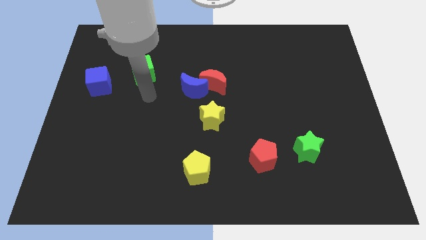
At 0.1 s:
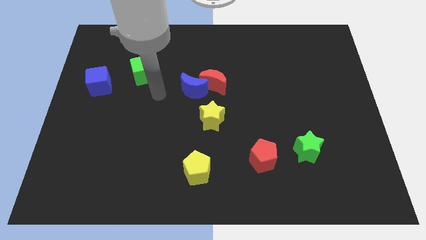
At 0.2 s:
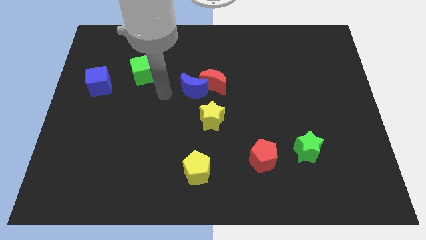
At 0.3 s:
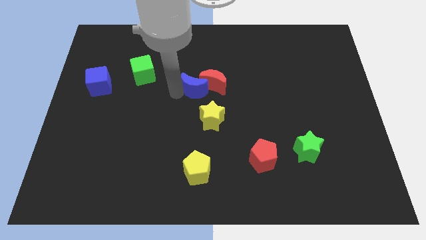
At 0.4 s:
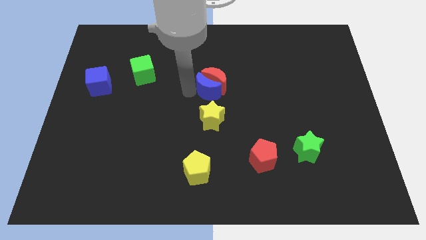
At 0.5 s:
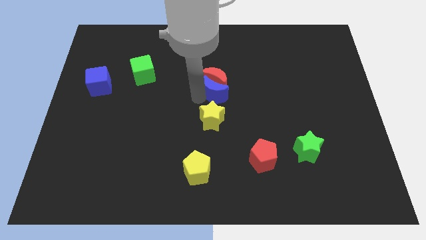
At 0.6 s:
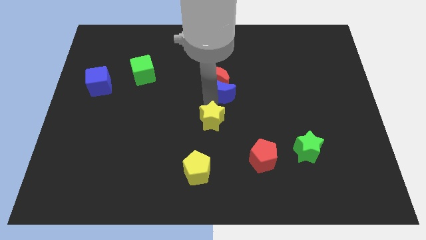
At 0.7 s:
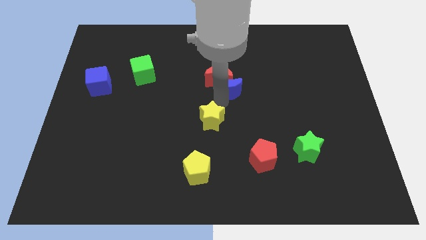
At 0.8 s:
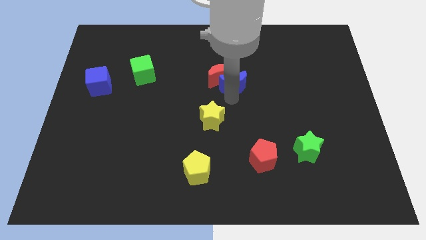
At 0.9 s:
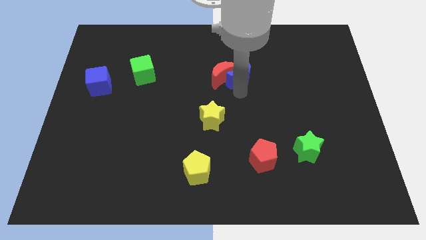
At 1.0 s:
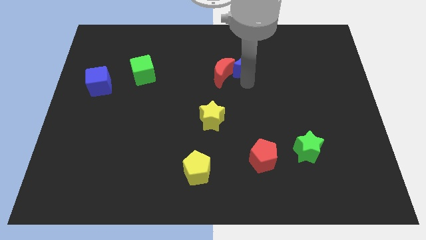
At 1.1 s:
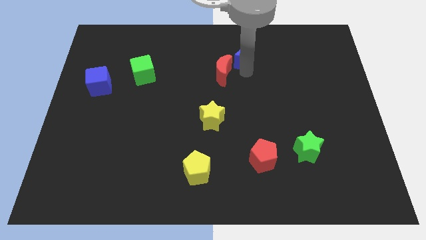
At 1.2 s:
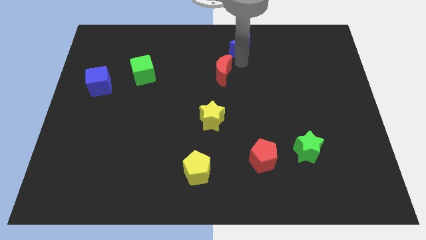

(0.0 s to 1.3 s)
move the red moon away from the blue moon

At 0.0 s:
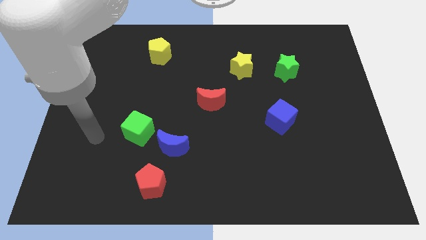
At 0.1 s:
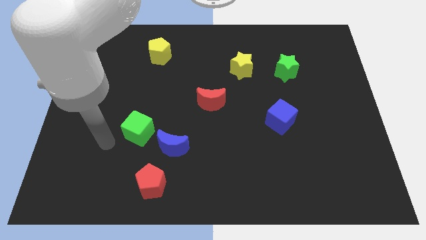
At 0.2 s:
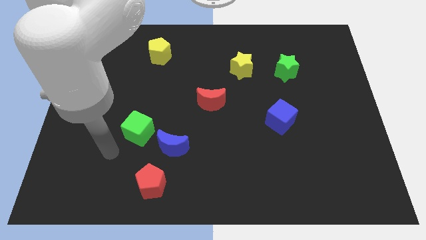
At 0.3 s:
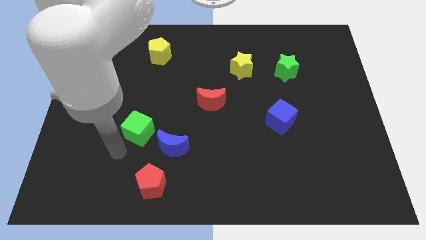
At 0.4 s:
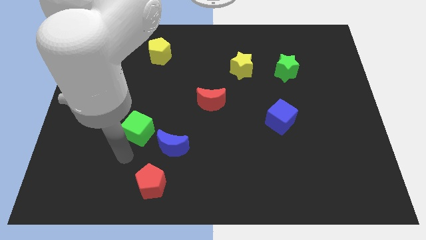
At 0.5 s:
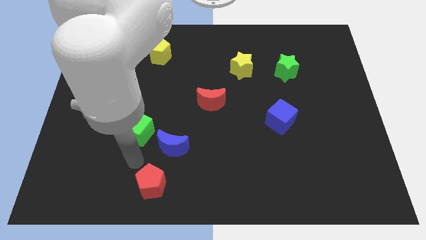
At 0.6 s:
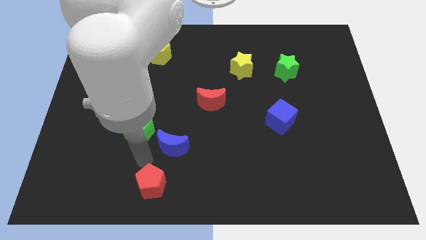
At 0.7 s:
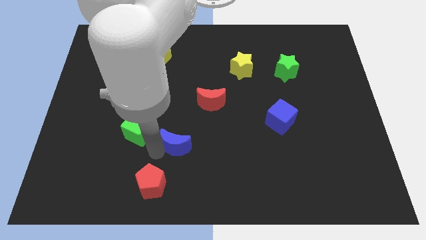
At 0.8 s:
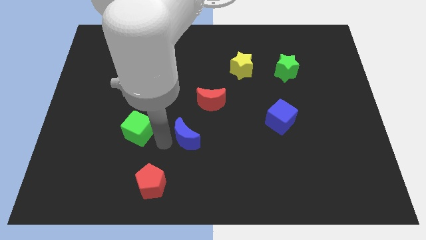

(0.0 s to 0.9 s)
pull the green cube apart from the blue moon

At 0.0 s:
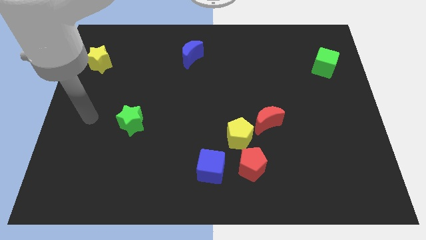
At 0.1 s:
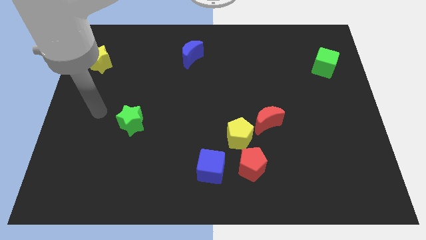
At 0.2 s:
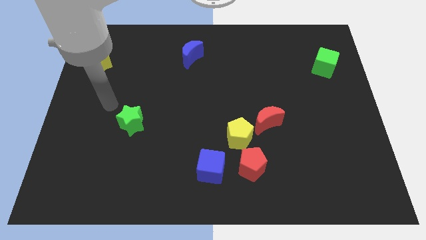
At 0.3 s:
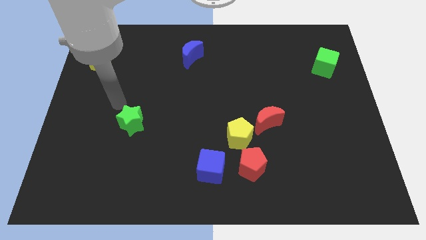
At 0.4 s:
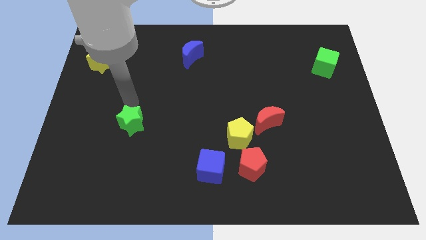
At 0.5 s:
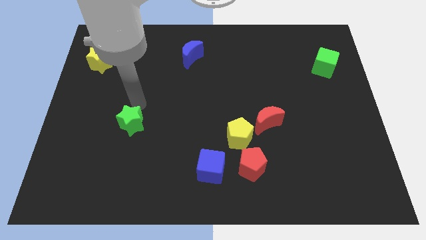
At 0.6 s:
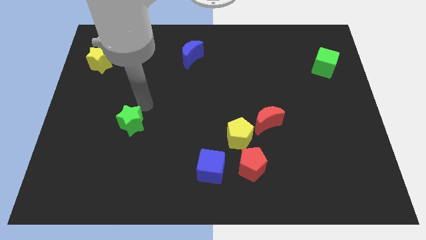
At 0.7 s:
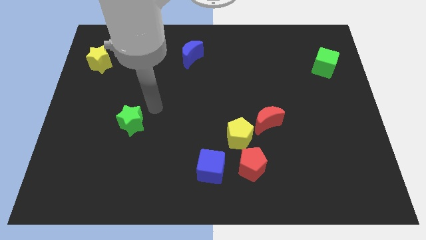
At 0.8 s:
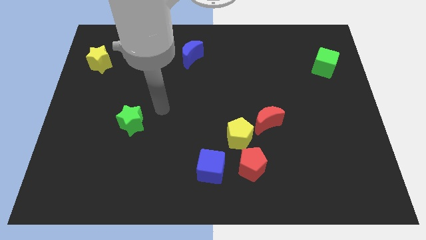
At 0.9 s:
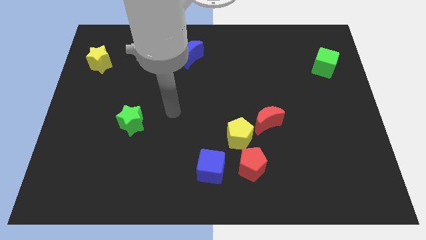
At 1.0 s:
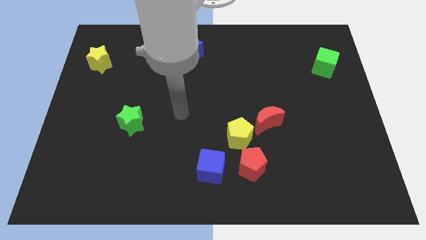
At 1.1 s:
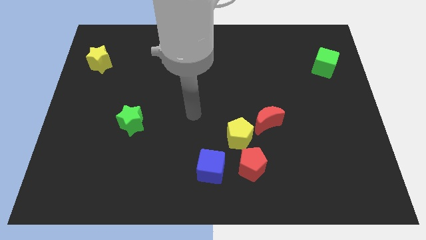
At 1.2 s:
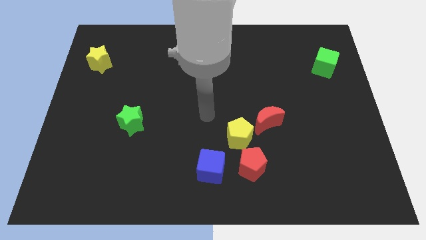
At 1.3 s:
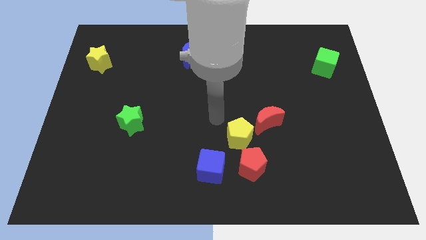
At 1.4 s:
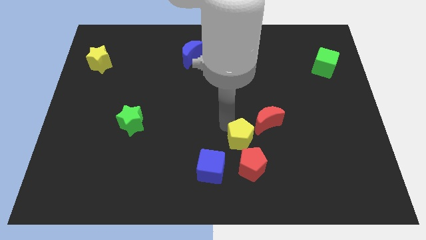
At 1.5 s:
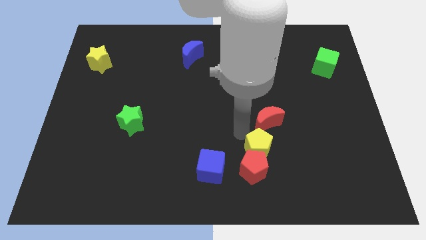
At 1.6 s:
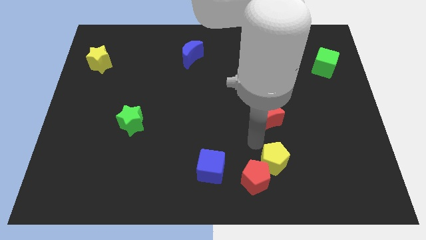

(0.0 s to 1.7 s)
pull the red moon apart from the yellow pentagon

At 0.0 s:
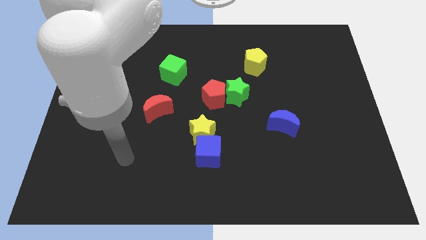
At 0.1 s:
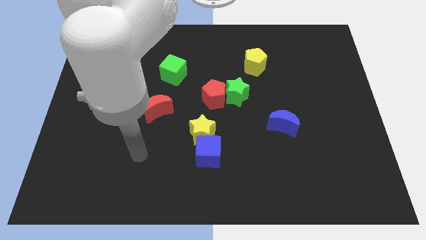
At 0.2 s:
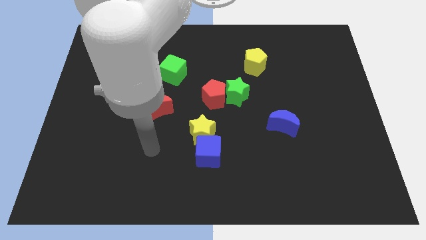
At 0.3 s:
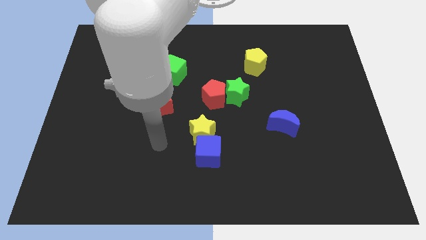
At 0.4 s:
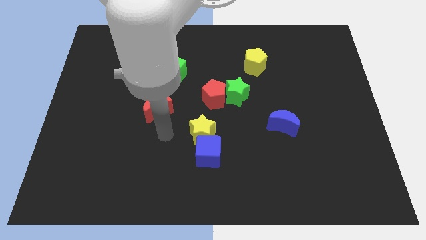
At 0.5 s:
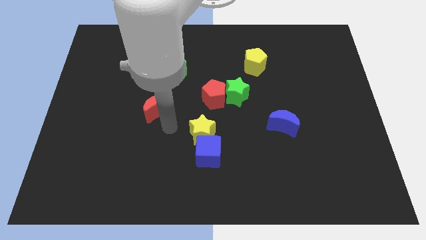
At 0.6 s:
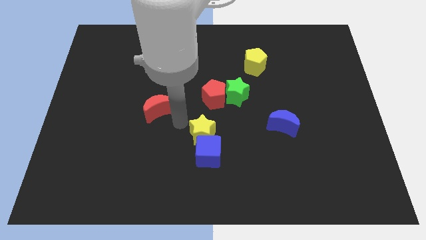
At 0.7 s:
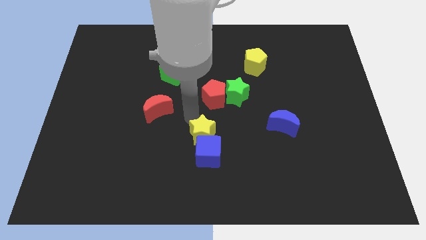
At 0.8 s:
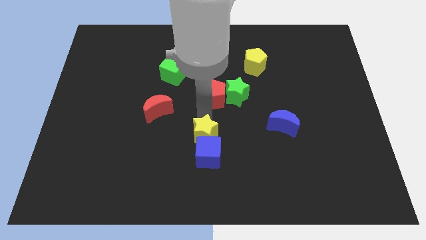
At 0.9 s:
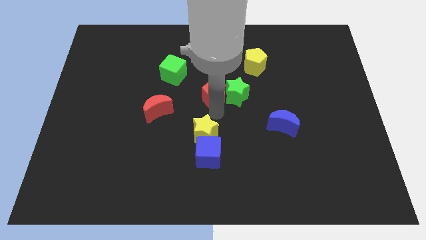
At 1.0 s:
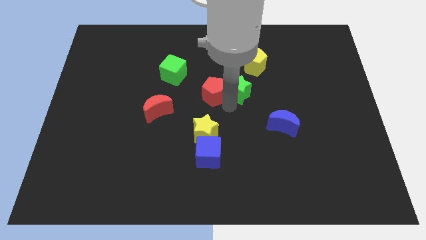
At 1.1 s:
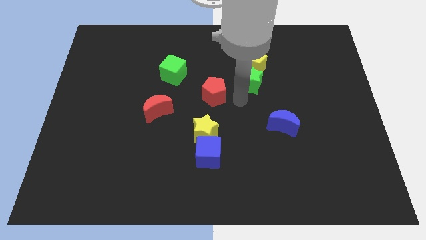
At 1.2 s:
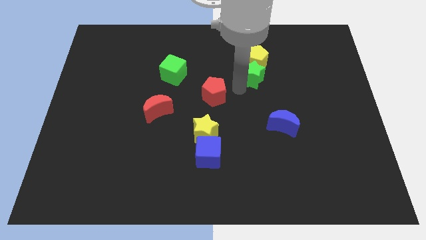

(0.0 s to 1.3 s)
separate the red pentagon from the green star

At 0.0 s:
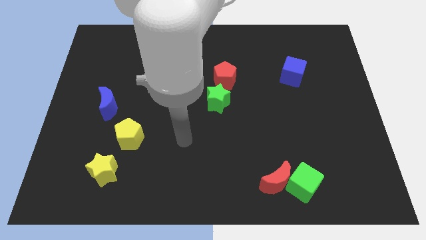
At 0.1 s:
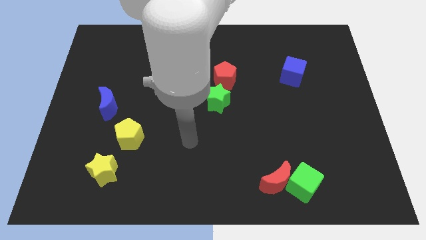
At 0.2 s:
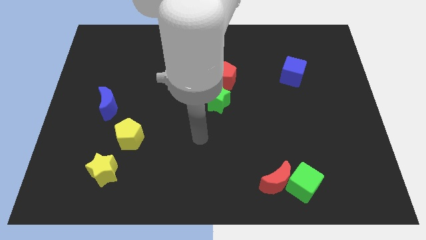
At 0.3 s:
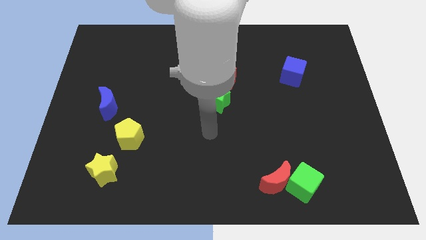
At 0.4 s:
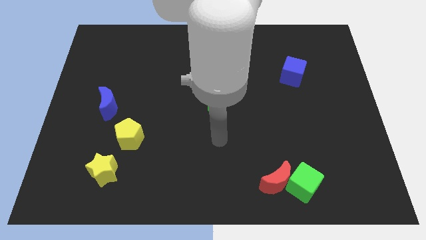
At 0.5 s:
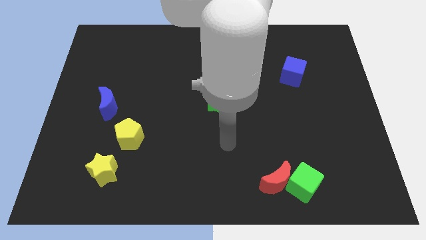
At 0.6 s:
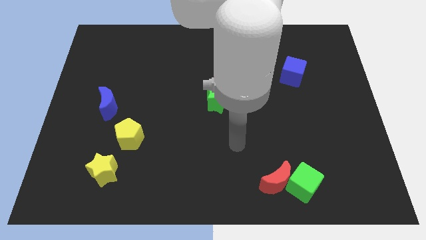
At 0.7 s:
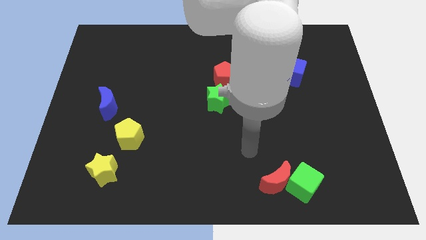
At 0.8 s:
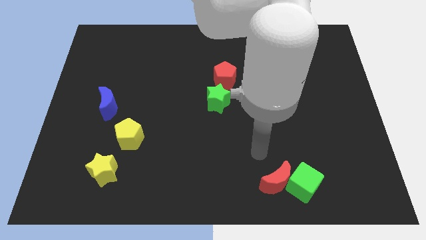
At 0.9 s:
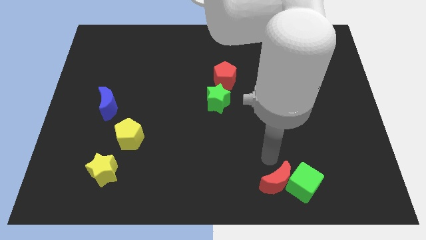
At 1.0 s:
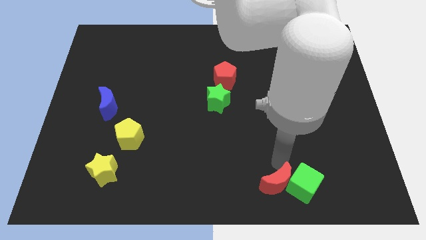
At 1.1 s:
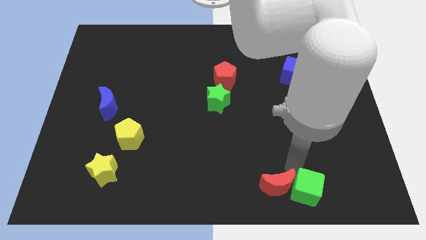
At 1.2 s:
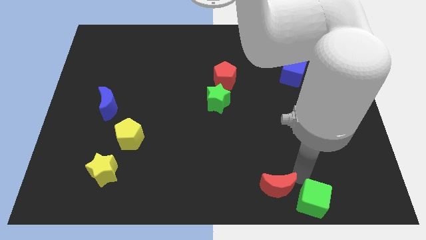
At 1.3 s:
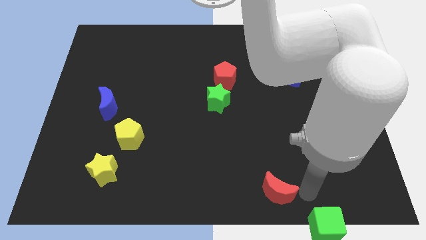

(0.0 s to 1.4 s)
move the red moon away from the green cube

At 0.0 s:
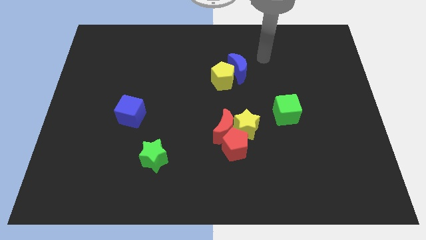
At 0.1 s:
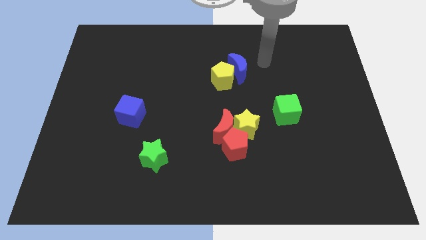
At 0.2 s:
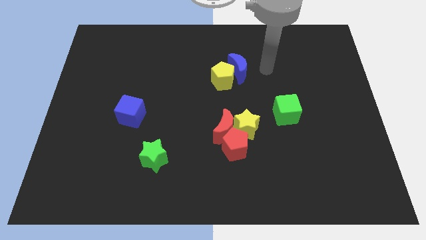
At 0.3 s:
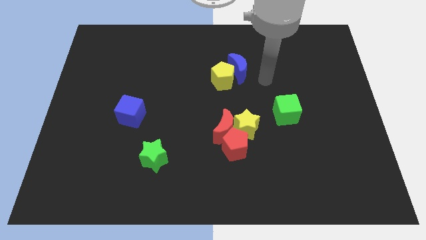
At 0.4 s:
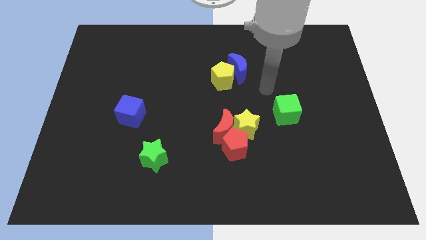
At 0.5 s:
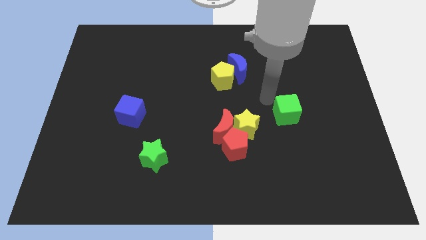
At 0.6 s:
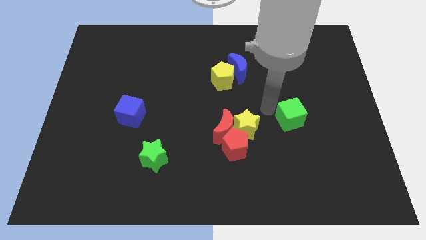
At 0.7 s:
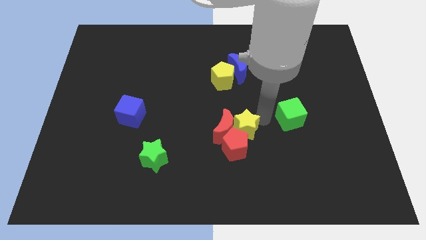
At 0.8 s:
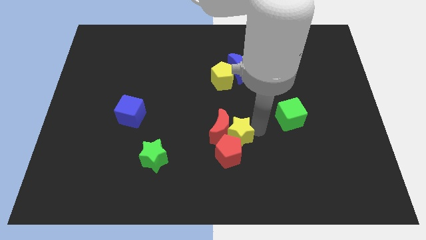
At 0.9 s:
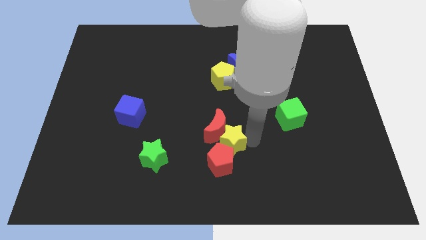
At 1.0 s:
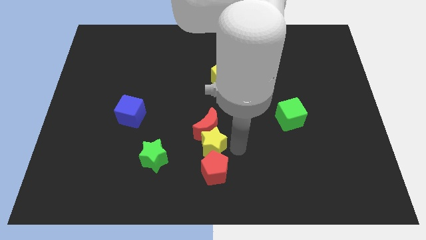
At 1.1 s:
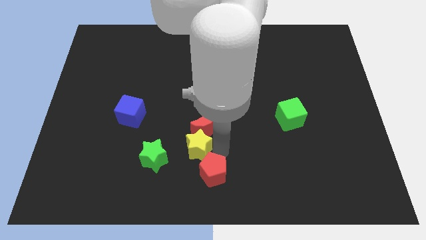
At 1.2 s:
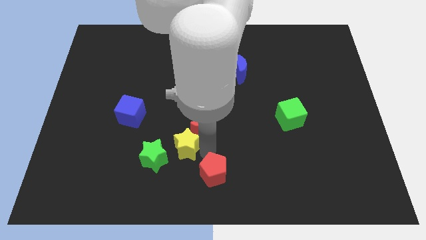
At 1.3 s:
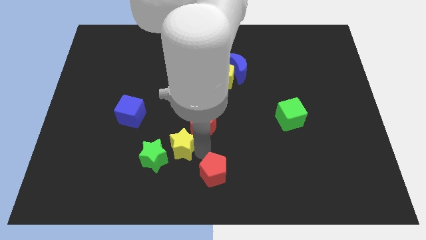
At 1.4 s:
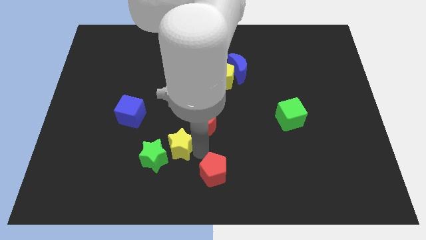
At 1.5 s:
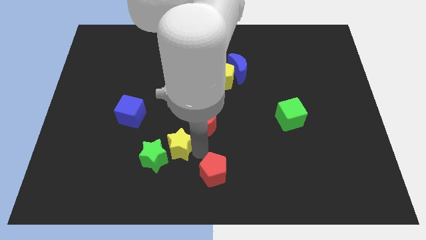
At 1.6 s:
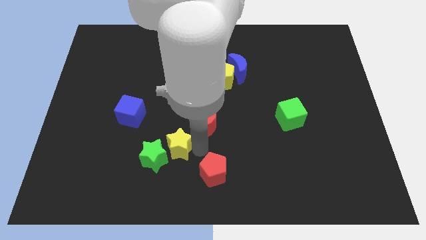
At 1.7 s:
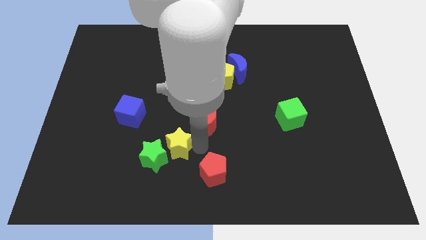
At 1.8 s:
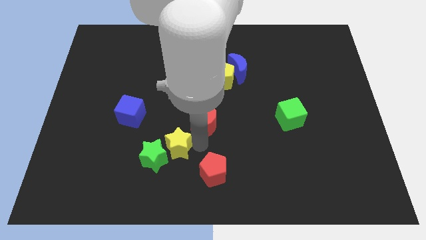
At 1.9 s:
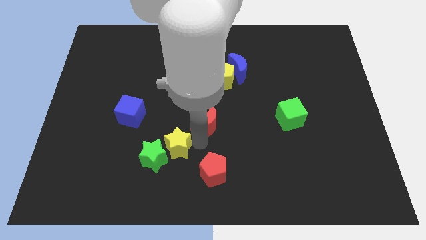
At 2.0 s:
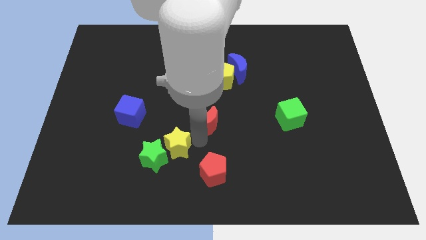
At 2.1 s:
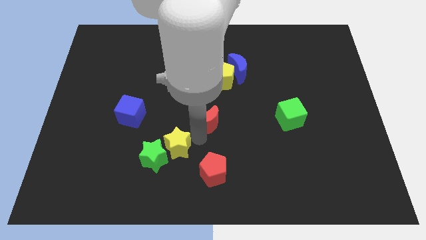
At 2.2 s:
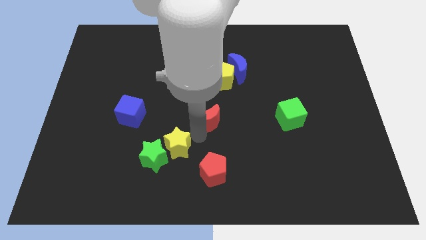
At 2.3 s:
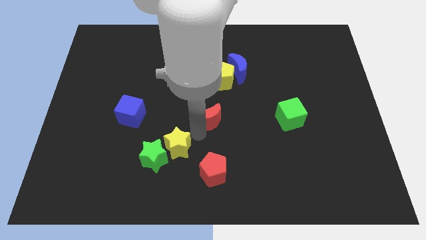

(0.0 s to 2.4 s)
pull the red moon apart from the yellow star and red pentagon

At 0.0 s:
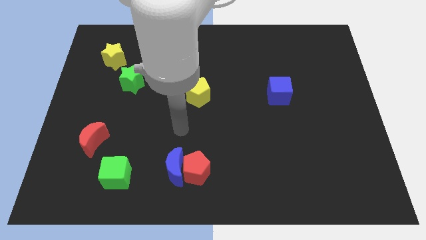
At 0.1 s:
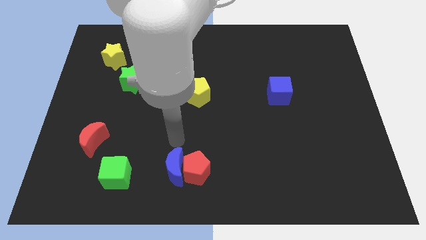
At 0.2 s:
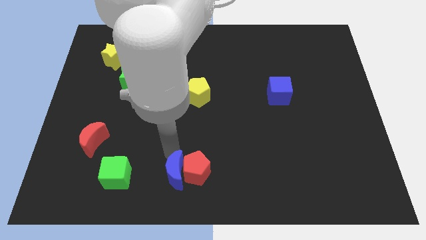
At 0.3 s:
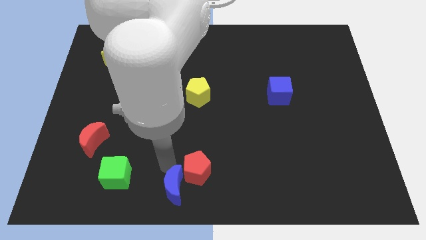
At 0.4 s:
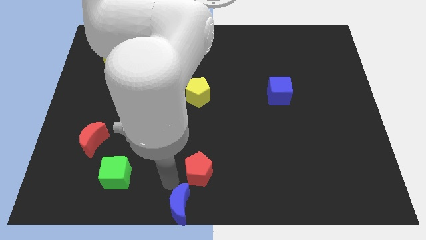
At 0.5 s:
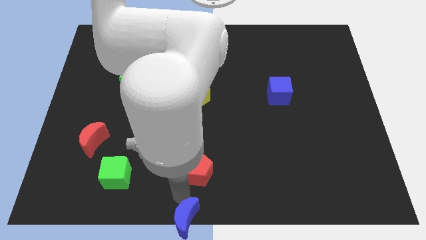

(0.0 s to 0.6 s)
pull the red pentagon apart from the blue moon
